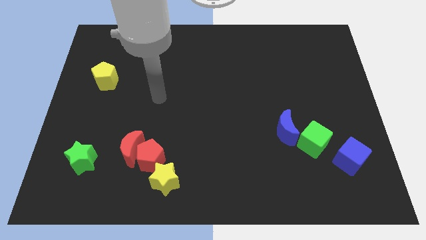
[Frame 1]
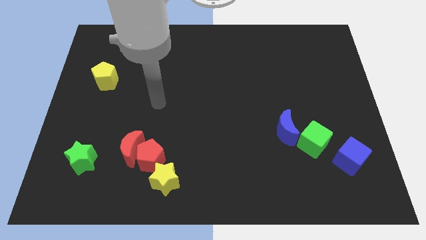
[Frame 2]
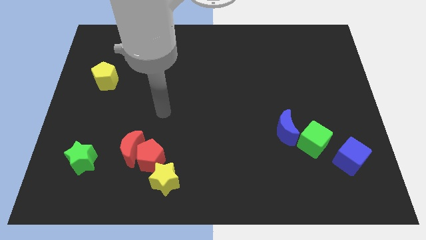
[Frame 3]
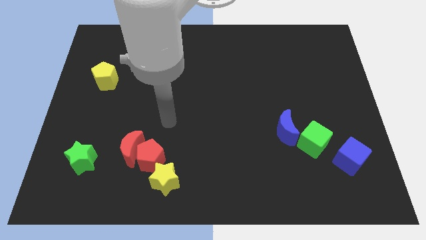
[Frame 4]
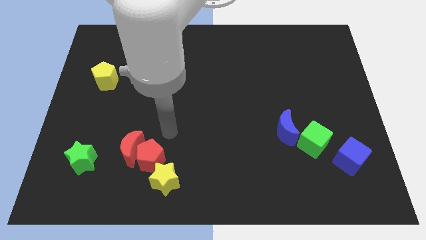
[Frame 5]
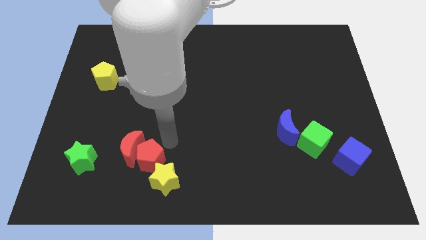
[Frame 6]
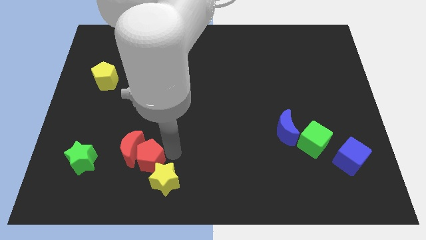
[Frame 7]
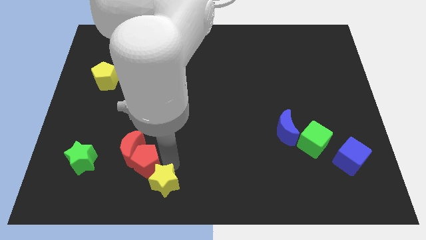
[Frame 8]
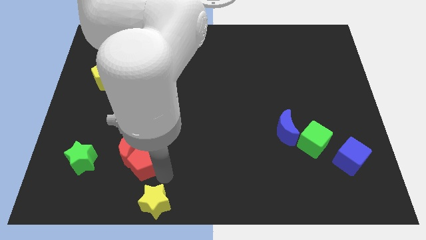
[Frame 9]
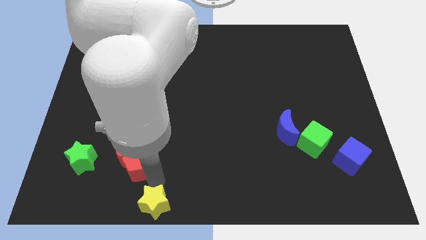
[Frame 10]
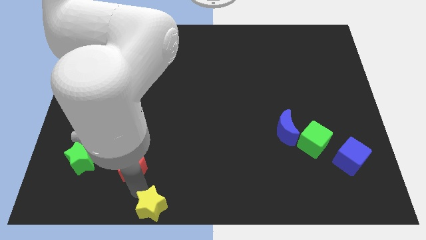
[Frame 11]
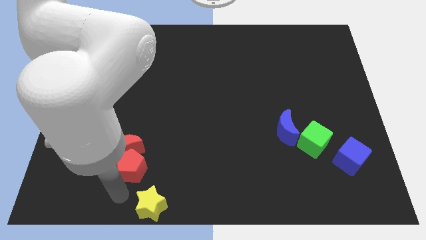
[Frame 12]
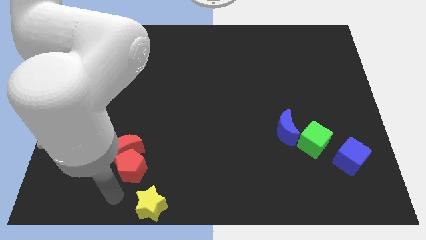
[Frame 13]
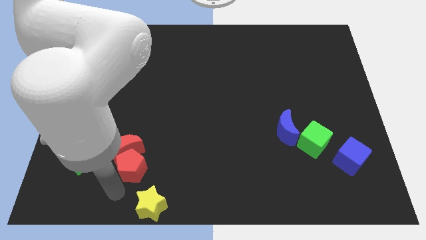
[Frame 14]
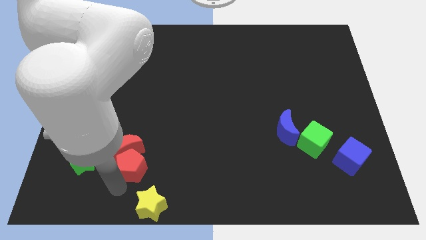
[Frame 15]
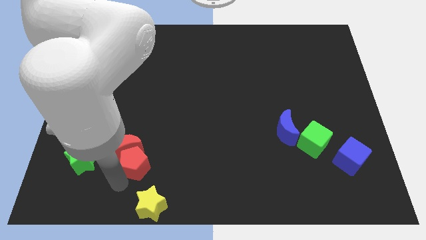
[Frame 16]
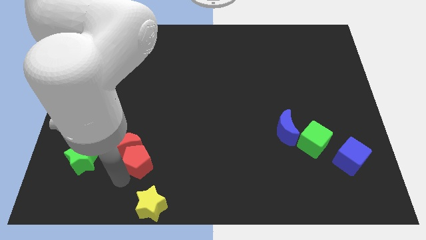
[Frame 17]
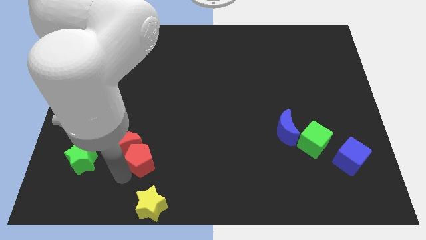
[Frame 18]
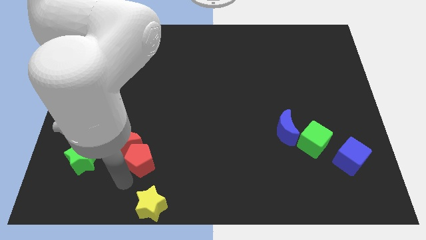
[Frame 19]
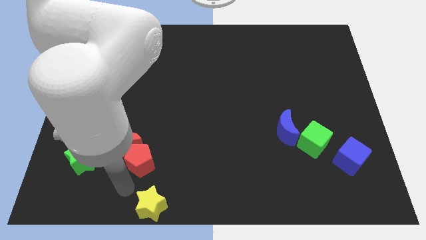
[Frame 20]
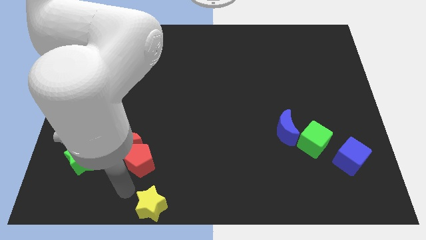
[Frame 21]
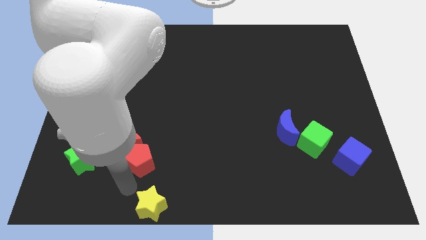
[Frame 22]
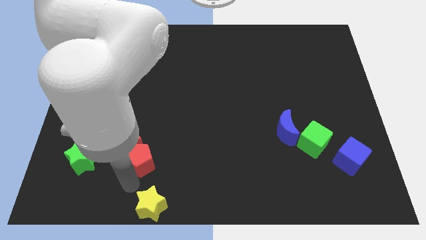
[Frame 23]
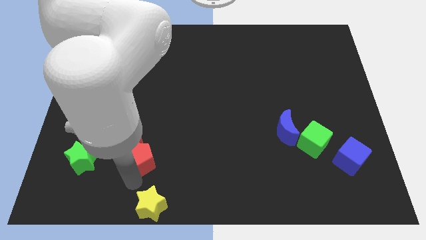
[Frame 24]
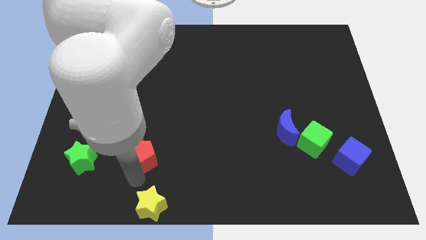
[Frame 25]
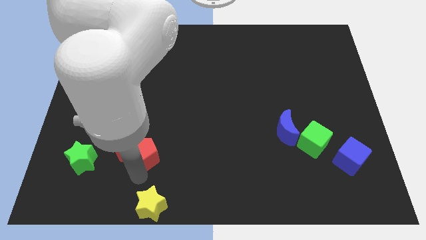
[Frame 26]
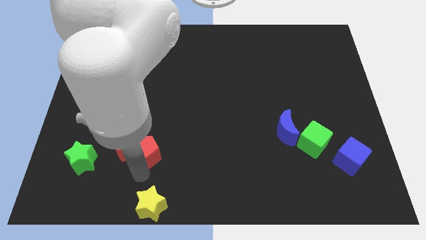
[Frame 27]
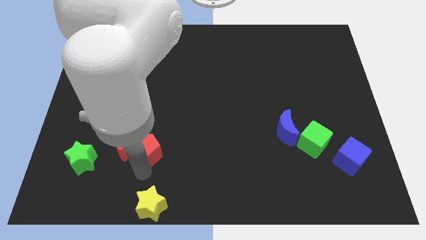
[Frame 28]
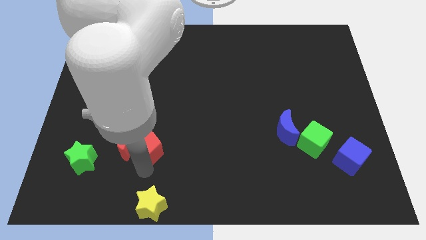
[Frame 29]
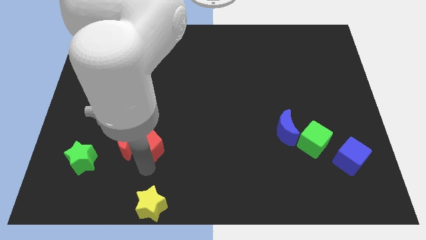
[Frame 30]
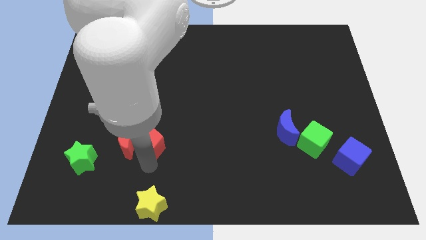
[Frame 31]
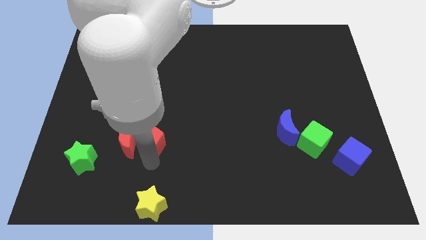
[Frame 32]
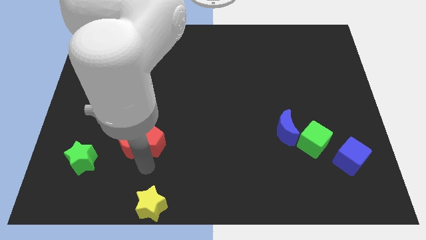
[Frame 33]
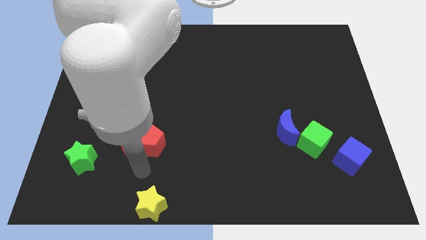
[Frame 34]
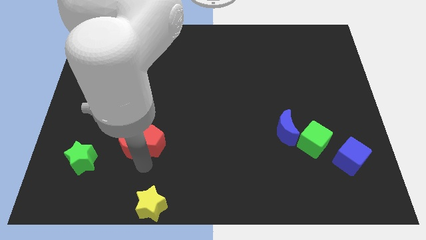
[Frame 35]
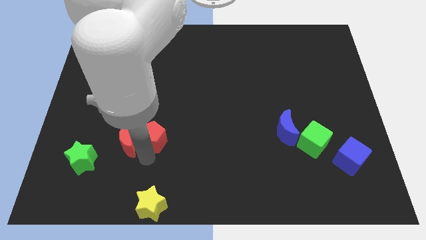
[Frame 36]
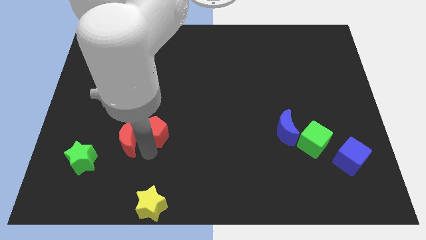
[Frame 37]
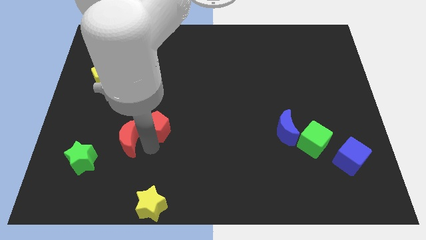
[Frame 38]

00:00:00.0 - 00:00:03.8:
move the red pentagon away from the red moon and yellow star

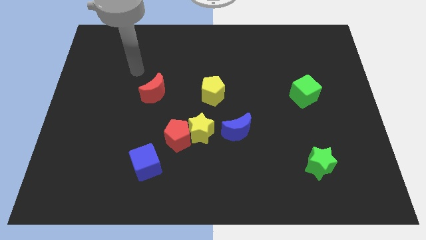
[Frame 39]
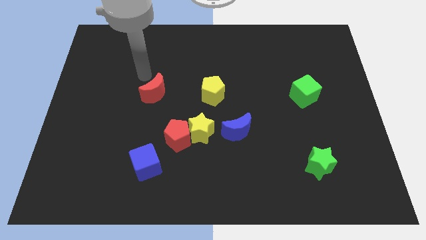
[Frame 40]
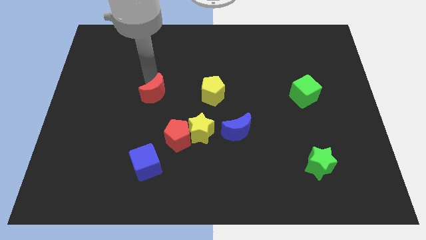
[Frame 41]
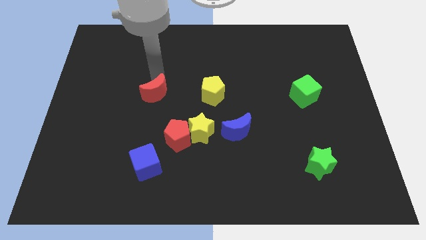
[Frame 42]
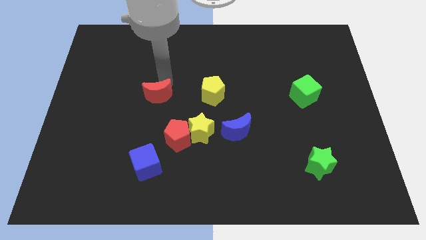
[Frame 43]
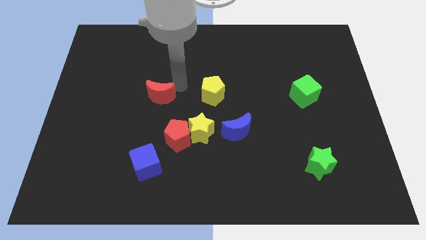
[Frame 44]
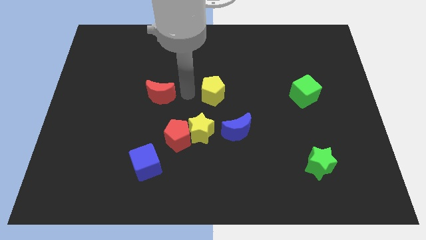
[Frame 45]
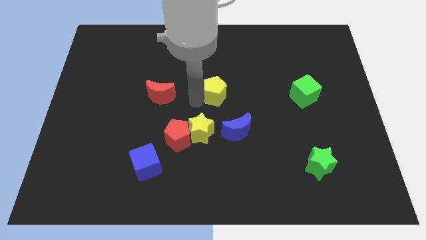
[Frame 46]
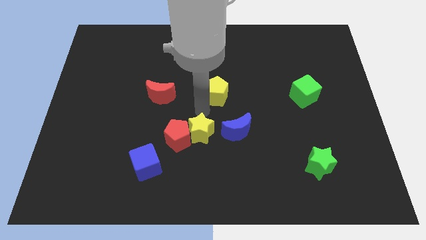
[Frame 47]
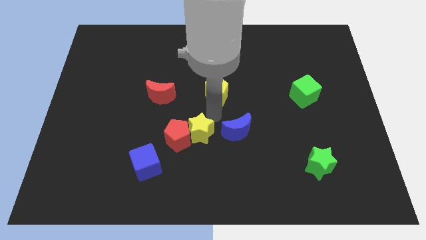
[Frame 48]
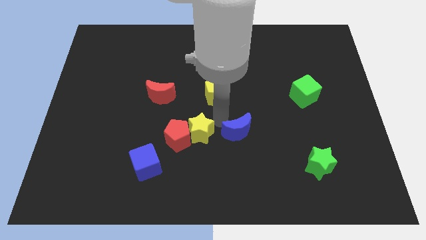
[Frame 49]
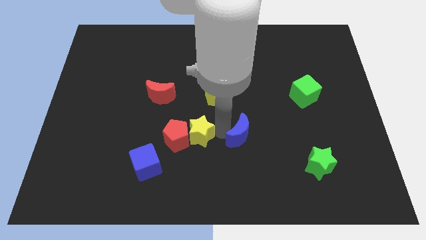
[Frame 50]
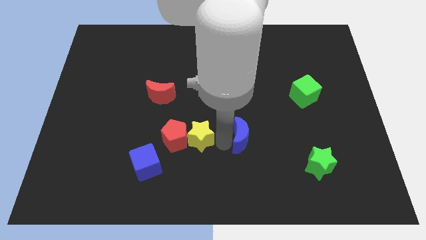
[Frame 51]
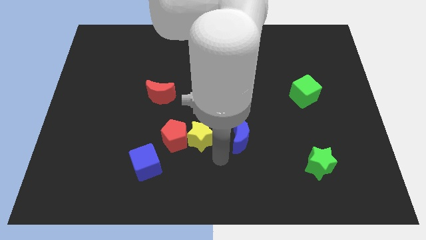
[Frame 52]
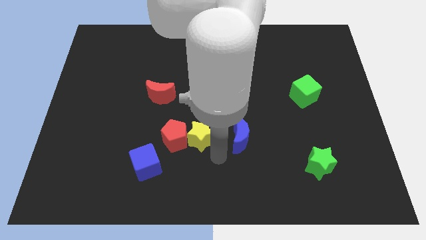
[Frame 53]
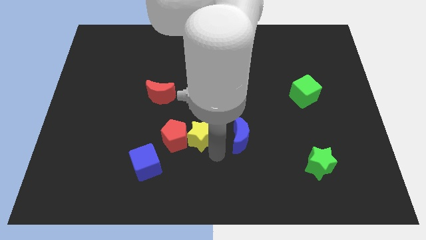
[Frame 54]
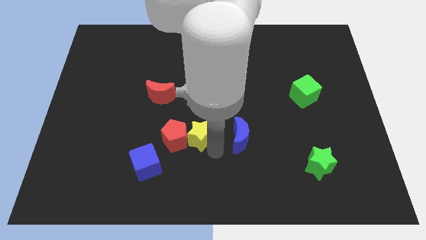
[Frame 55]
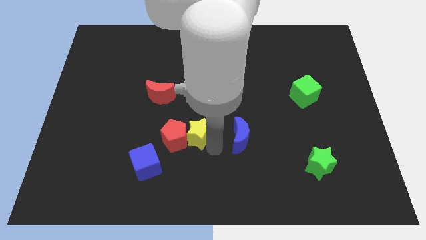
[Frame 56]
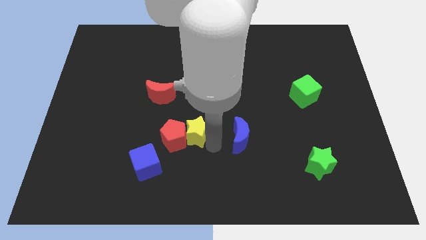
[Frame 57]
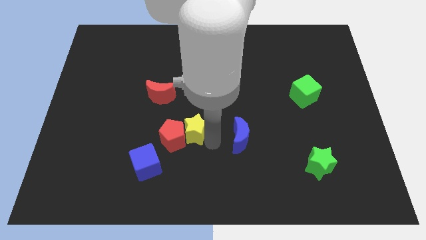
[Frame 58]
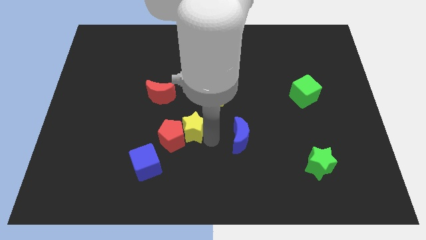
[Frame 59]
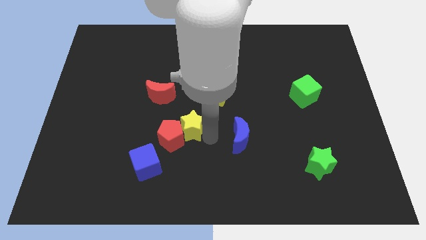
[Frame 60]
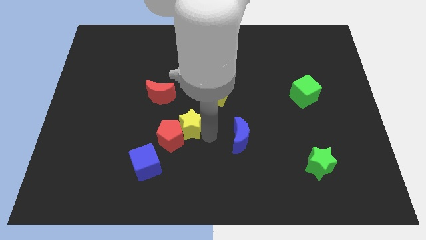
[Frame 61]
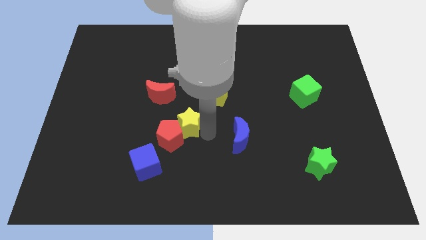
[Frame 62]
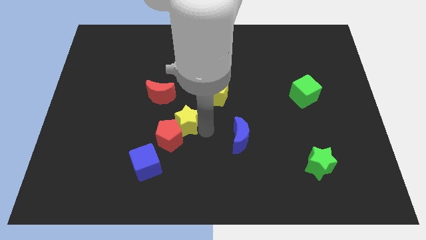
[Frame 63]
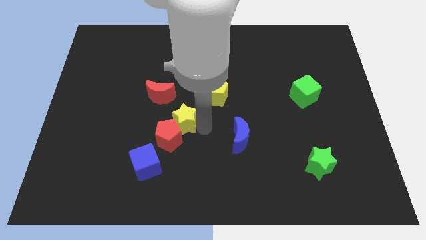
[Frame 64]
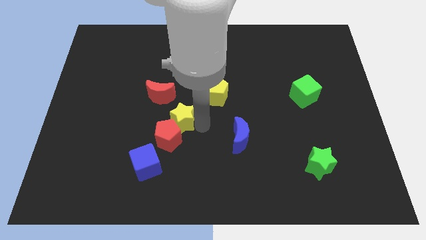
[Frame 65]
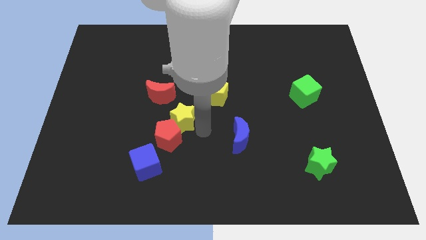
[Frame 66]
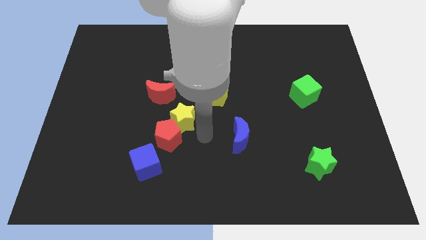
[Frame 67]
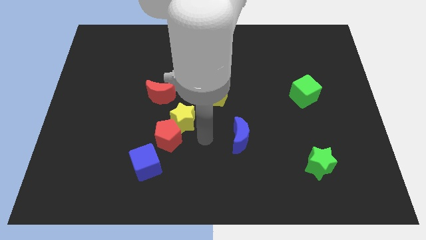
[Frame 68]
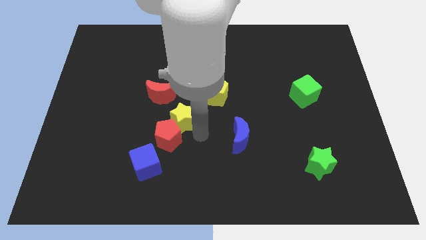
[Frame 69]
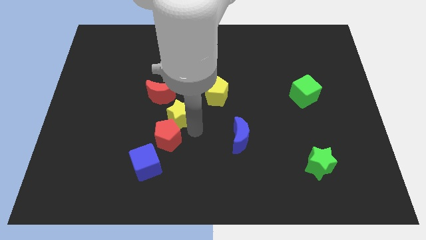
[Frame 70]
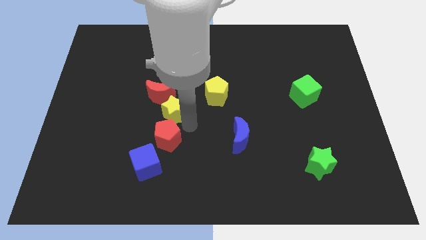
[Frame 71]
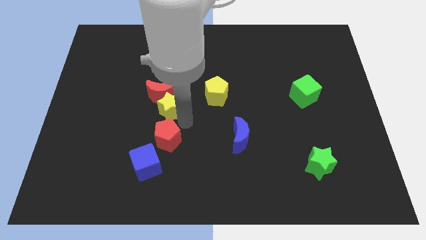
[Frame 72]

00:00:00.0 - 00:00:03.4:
move the yellow star away from the red pentagon and blue moon

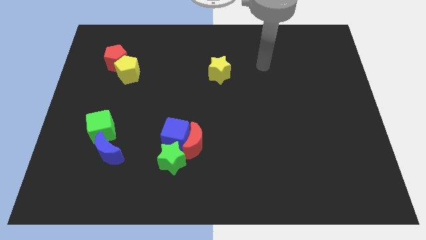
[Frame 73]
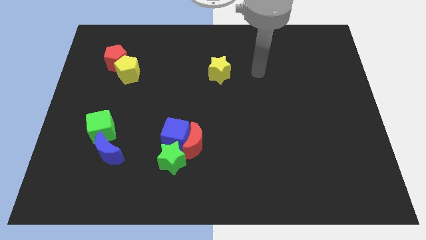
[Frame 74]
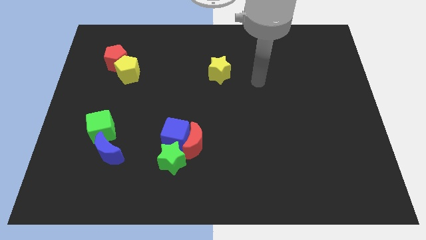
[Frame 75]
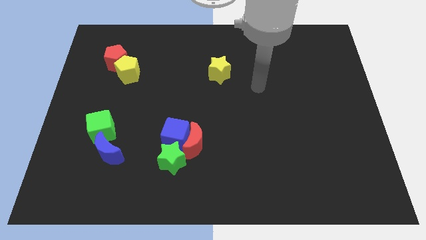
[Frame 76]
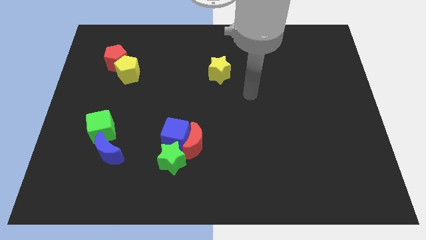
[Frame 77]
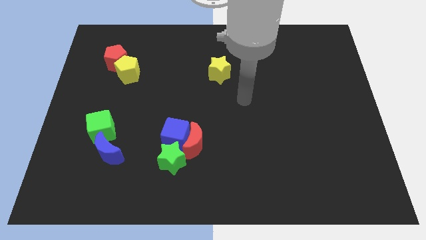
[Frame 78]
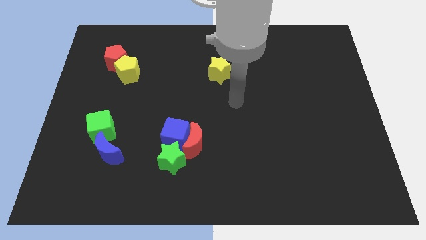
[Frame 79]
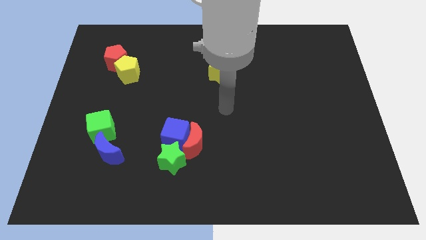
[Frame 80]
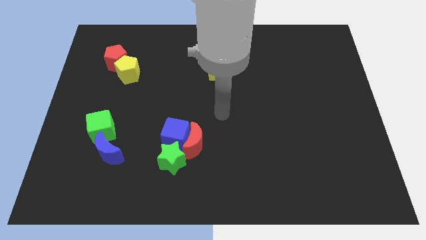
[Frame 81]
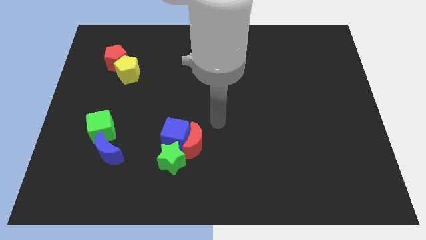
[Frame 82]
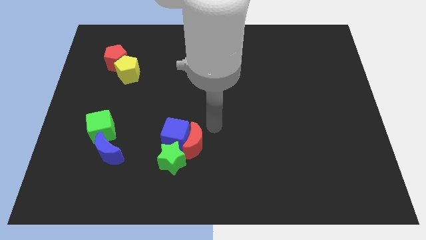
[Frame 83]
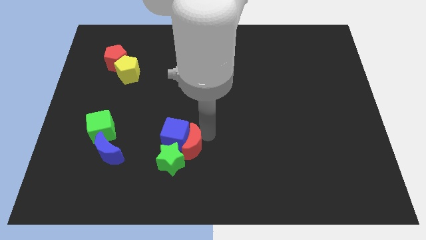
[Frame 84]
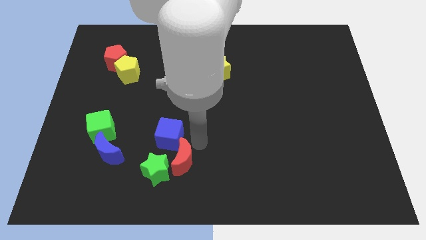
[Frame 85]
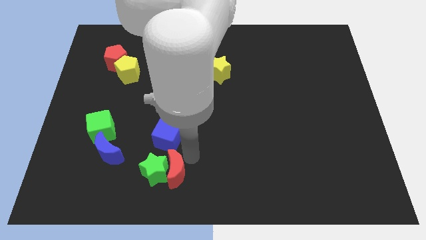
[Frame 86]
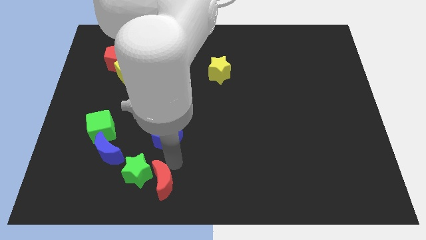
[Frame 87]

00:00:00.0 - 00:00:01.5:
pull the blue cube apart from the red moon and green star

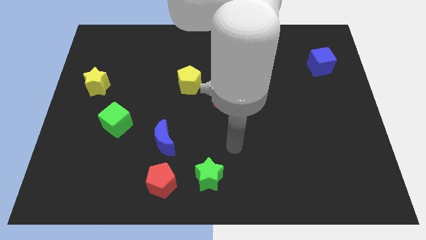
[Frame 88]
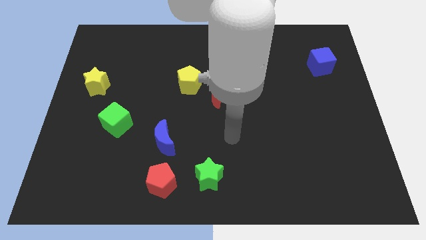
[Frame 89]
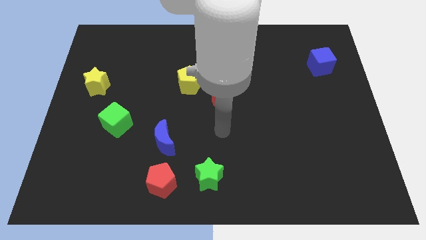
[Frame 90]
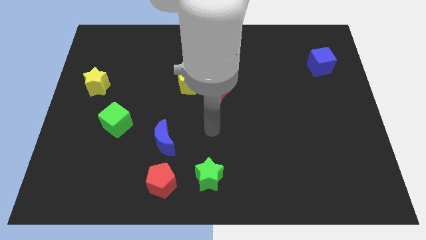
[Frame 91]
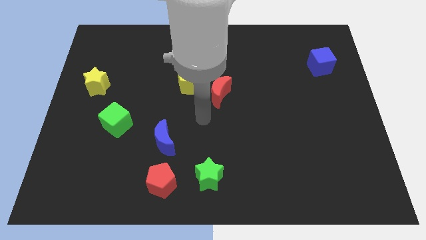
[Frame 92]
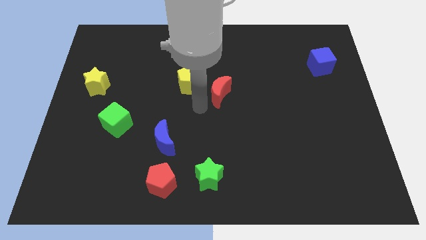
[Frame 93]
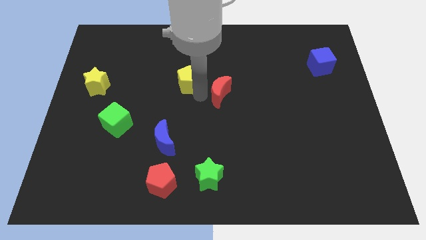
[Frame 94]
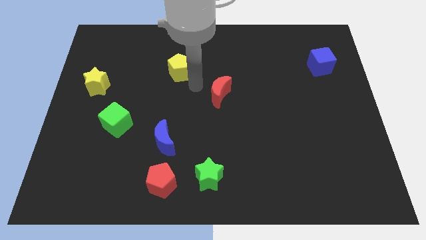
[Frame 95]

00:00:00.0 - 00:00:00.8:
pull the red moon apart from the yellow pentagon

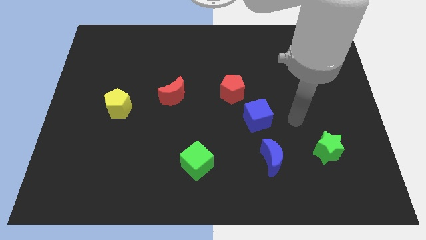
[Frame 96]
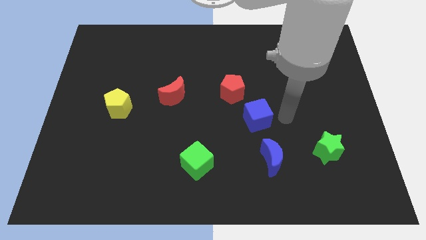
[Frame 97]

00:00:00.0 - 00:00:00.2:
move the red pentagon away from the blue cube
